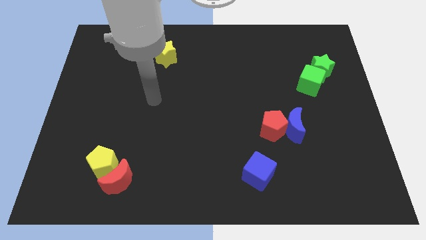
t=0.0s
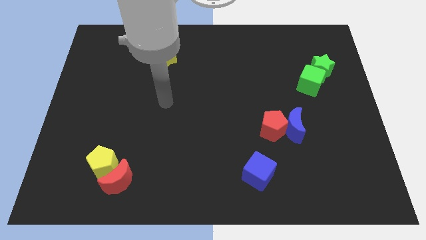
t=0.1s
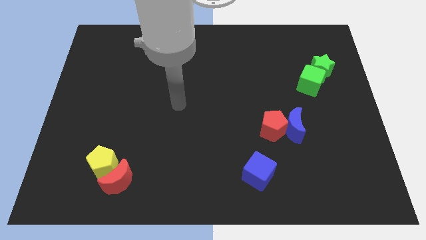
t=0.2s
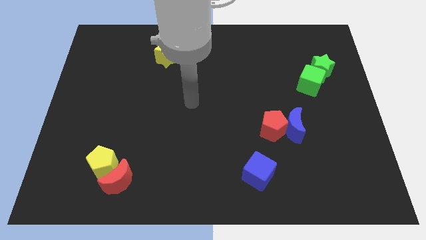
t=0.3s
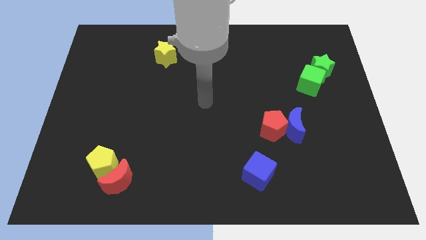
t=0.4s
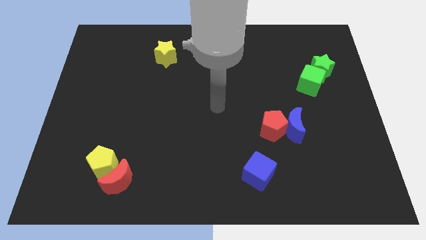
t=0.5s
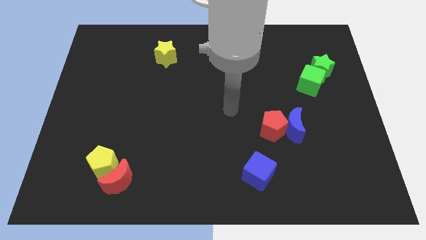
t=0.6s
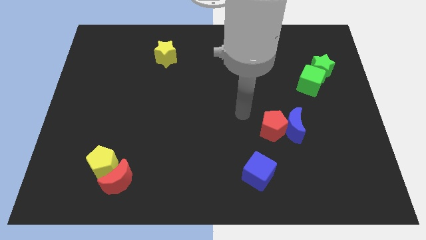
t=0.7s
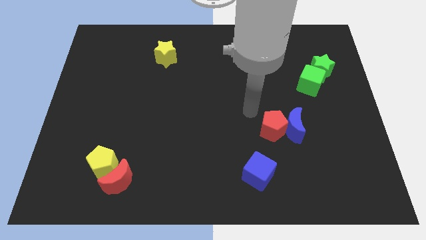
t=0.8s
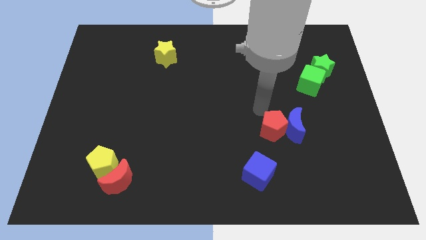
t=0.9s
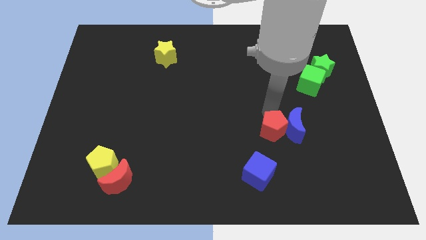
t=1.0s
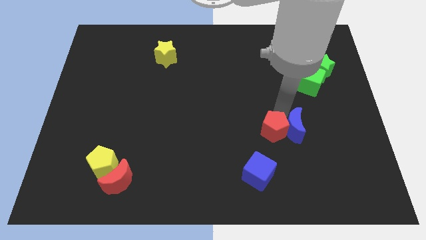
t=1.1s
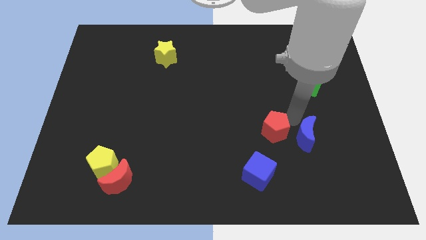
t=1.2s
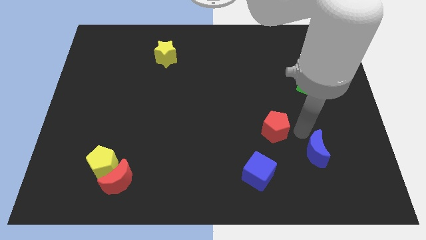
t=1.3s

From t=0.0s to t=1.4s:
move the red pentagon away from the blue moon

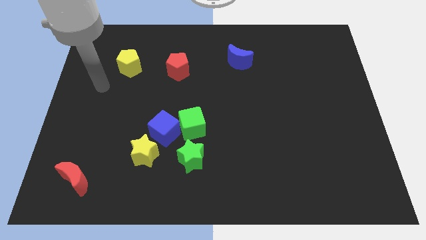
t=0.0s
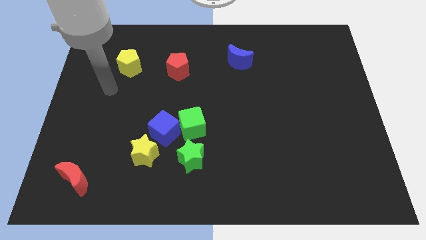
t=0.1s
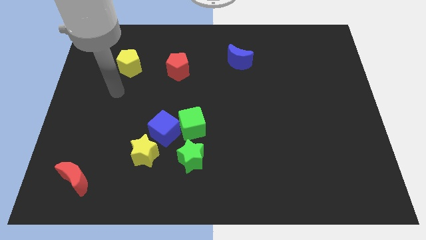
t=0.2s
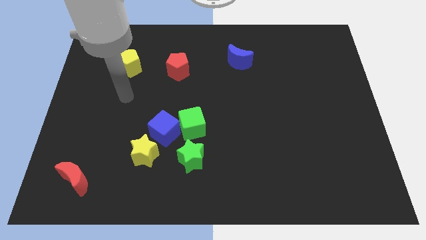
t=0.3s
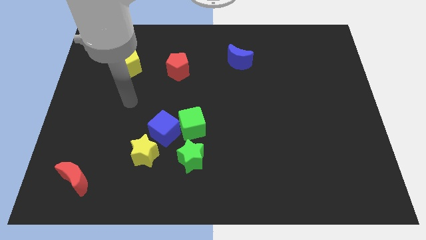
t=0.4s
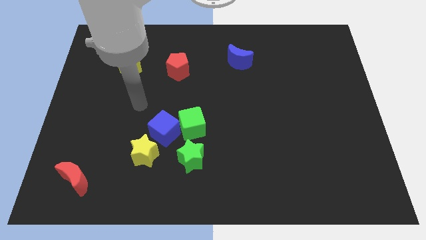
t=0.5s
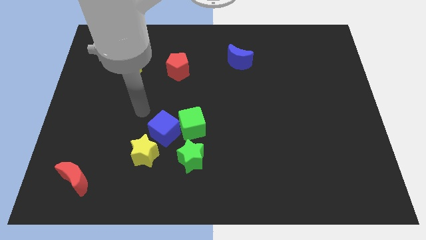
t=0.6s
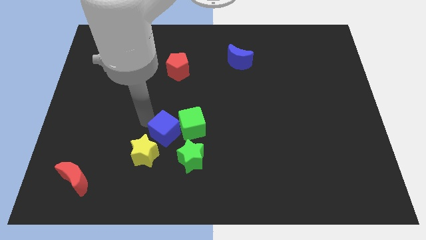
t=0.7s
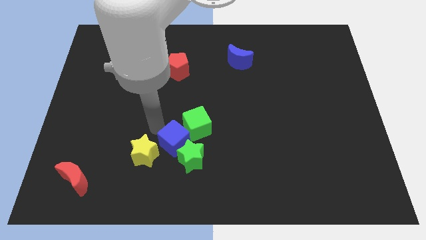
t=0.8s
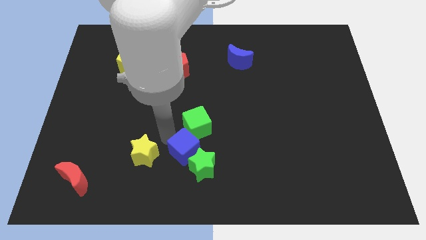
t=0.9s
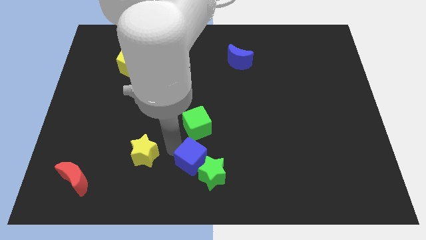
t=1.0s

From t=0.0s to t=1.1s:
separate the yellow star from the blue cube

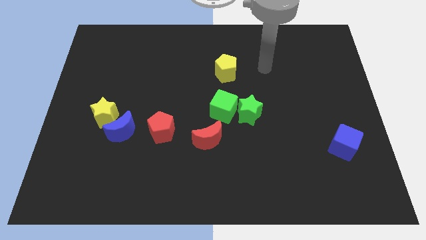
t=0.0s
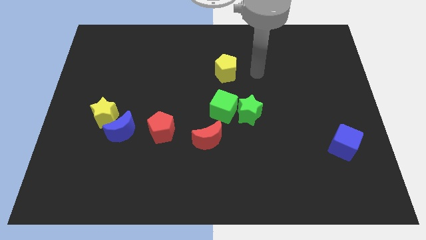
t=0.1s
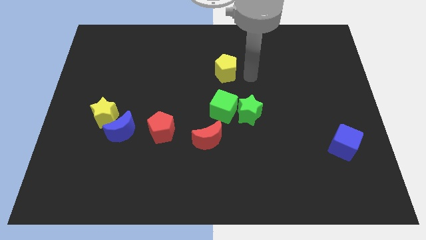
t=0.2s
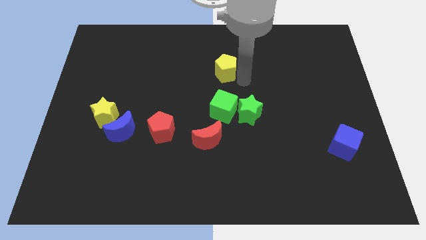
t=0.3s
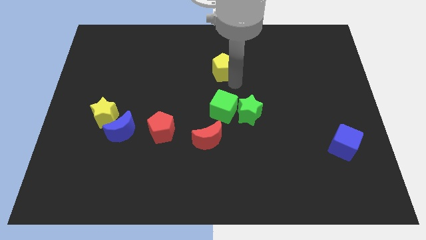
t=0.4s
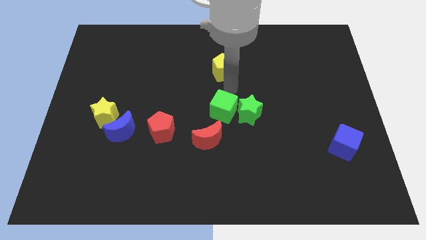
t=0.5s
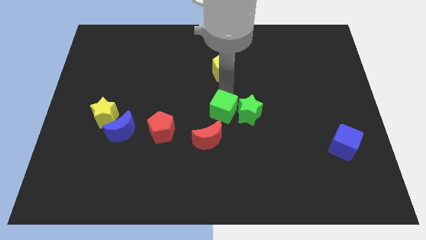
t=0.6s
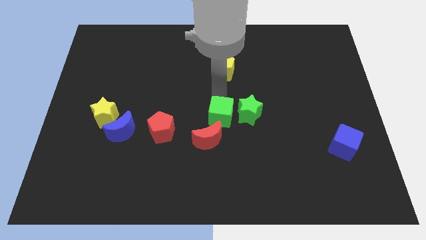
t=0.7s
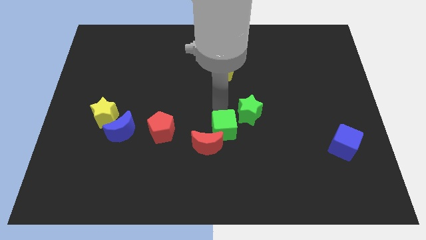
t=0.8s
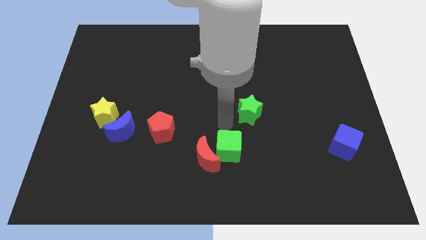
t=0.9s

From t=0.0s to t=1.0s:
separate the green star from the green cube

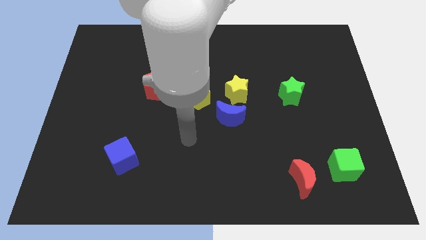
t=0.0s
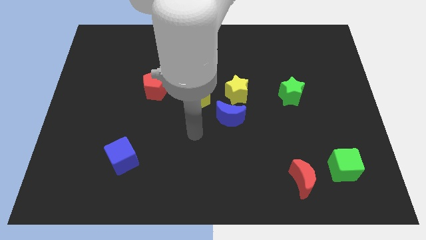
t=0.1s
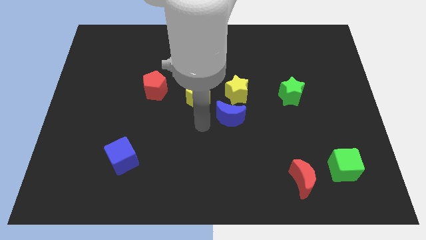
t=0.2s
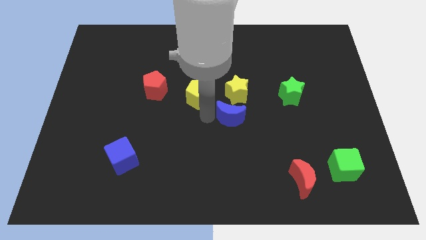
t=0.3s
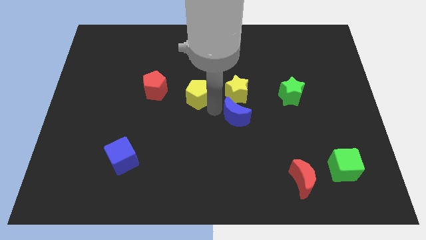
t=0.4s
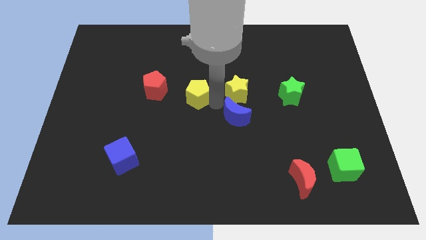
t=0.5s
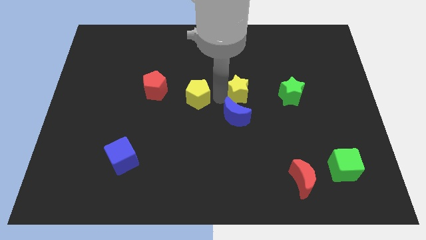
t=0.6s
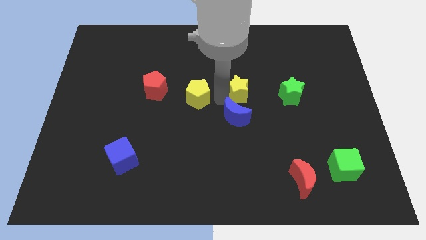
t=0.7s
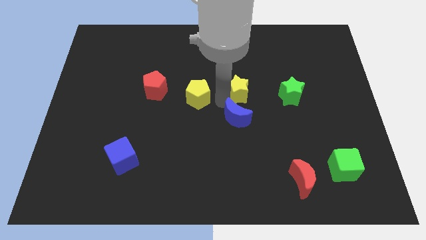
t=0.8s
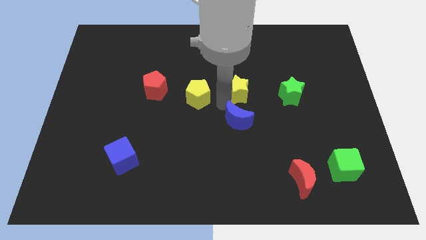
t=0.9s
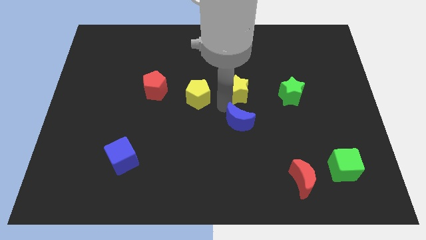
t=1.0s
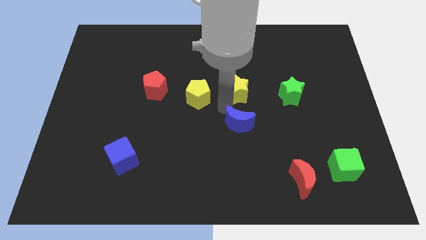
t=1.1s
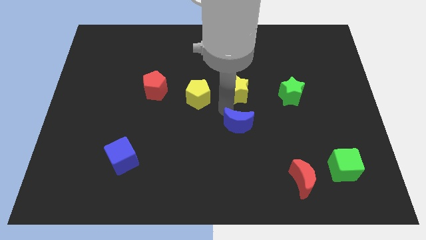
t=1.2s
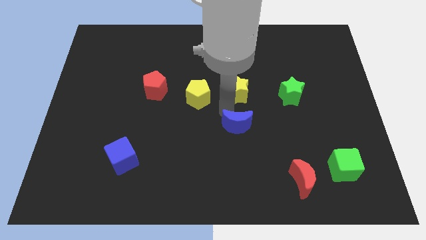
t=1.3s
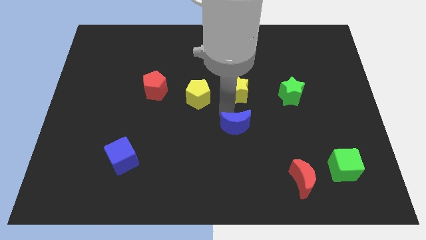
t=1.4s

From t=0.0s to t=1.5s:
move the blue moon away from the yellow star and yellow pentagon

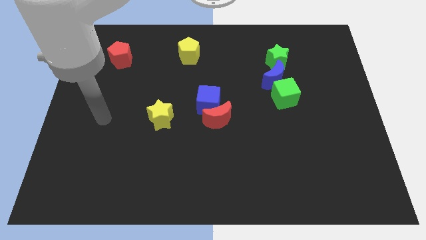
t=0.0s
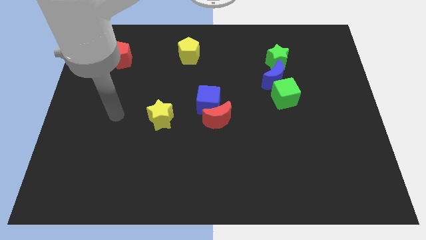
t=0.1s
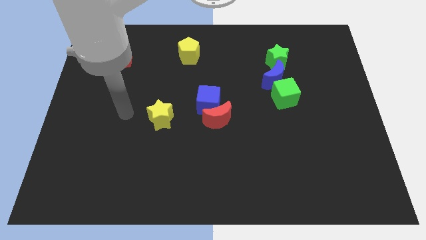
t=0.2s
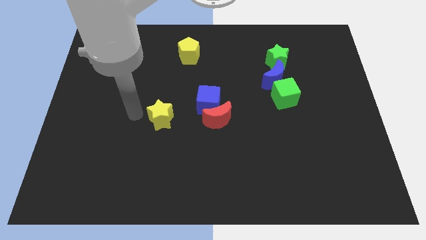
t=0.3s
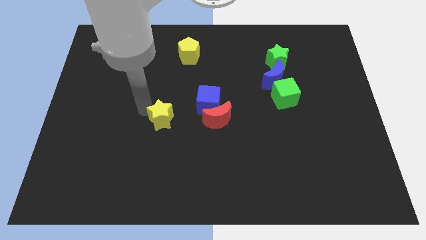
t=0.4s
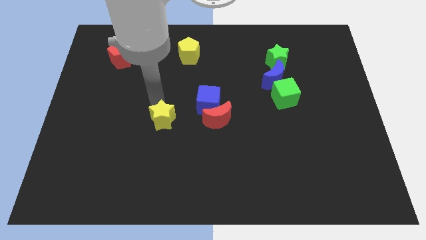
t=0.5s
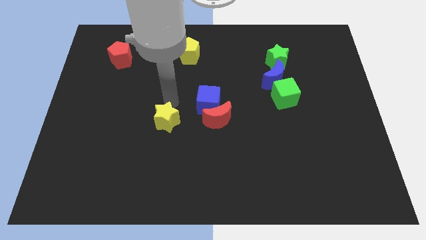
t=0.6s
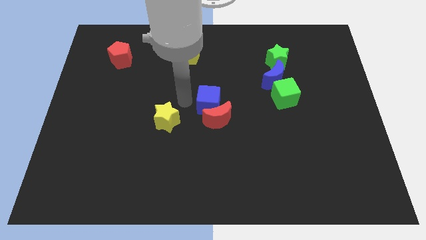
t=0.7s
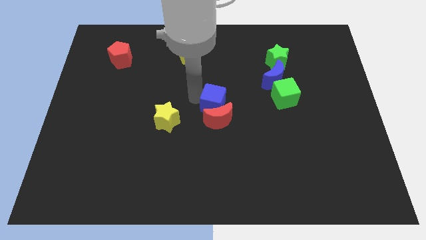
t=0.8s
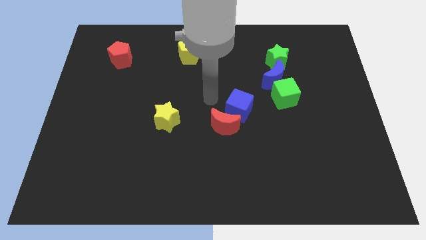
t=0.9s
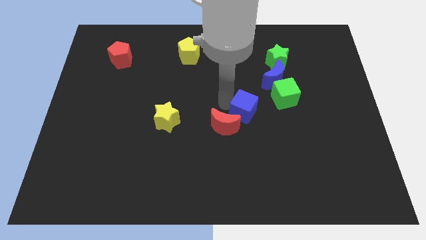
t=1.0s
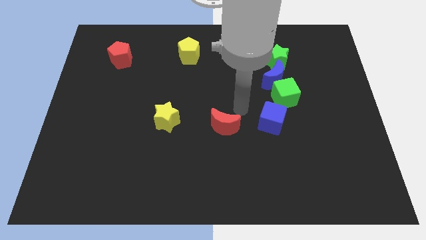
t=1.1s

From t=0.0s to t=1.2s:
move the red moon away from the blue cube

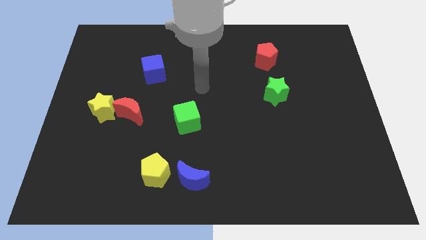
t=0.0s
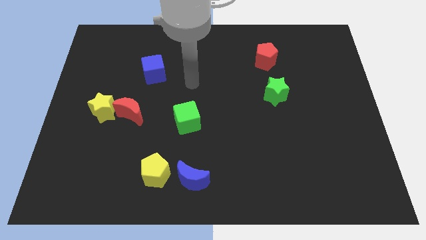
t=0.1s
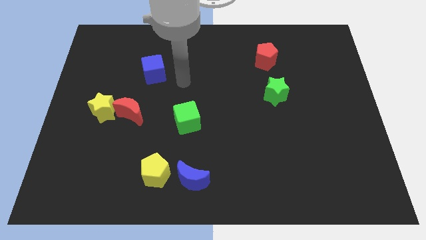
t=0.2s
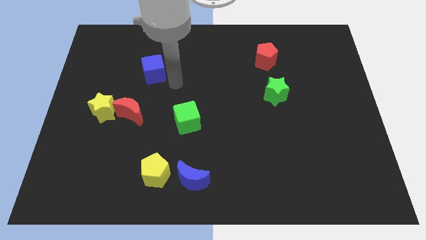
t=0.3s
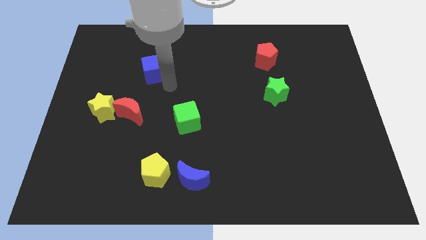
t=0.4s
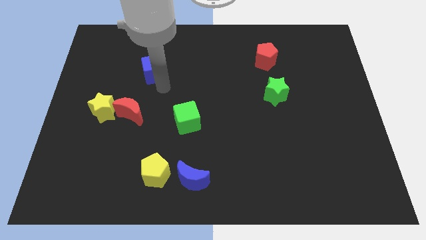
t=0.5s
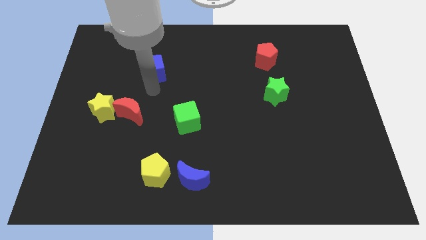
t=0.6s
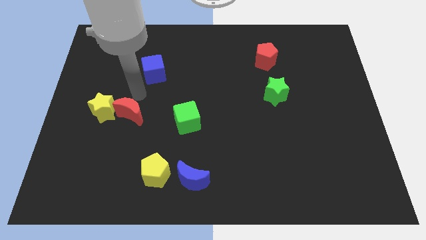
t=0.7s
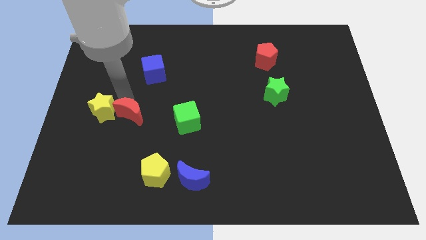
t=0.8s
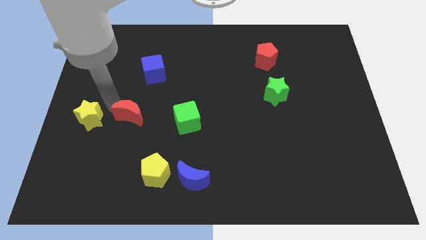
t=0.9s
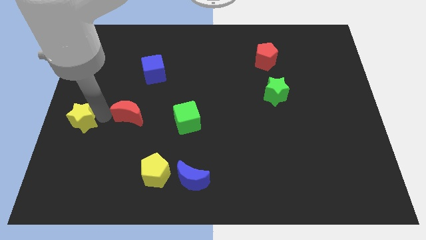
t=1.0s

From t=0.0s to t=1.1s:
move the red moon away from the yellow star

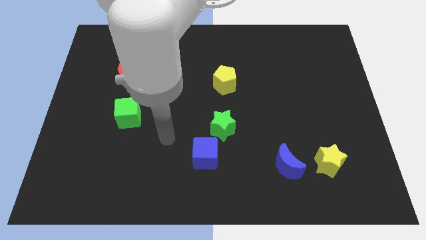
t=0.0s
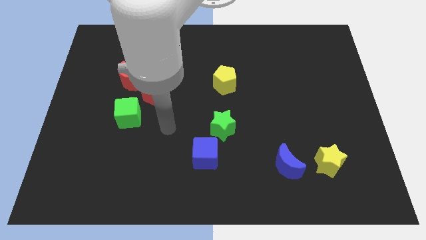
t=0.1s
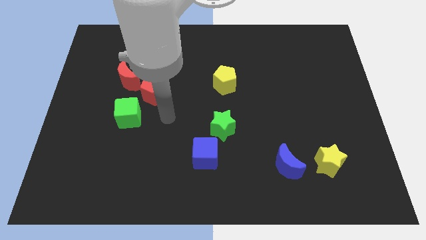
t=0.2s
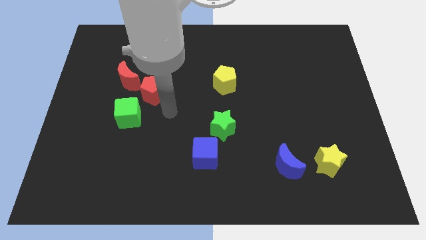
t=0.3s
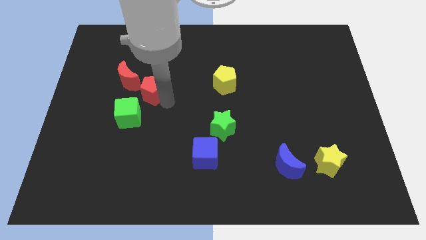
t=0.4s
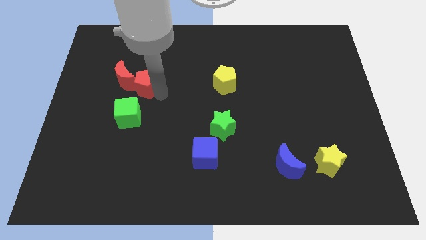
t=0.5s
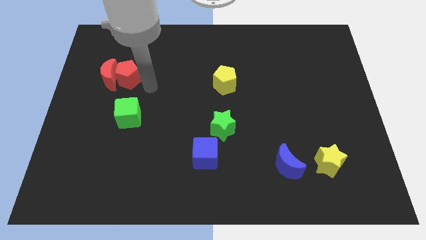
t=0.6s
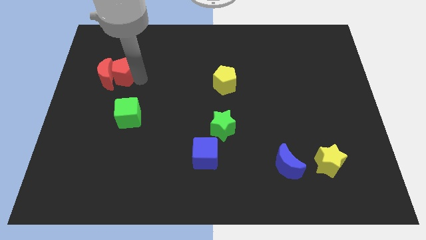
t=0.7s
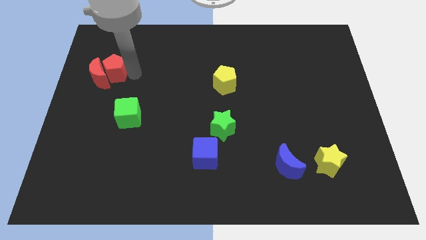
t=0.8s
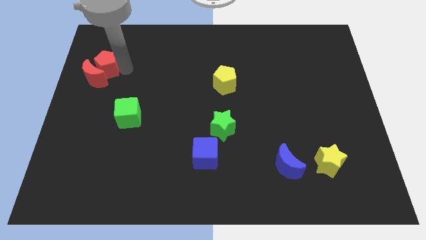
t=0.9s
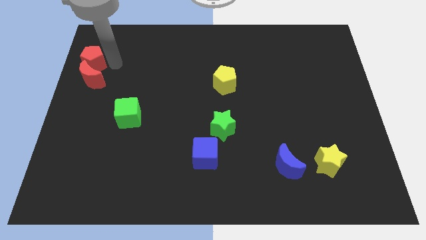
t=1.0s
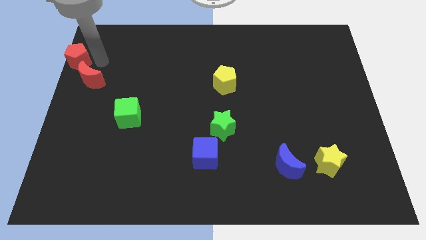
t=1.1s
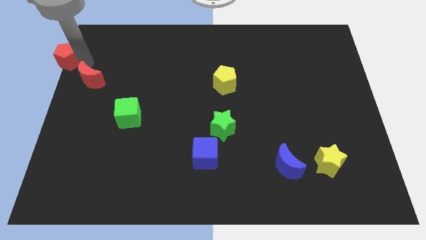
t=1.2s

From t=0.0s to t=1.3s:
move the red moon away from the red pentagon

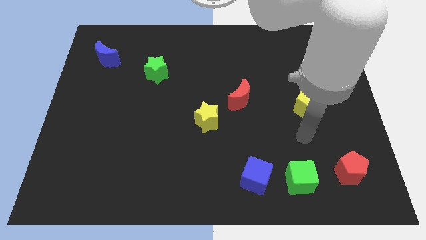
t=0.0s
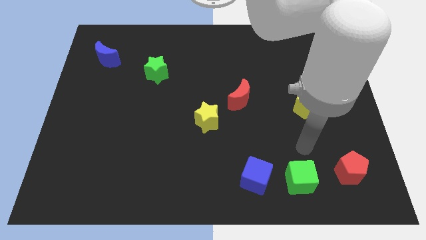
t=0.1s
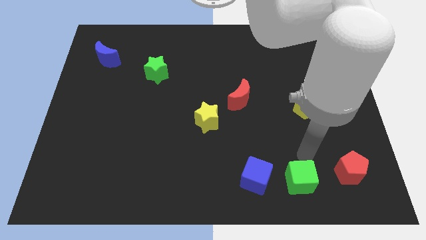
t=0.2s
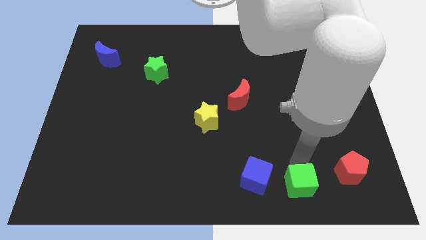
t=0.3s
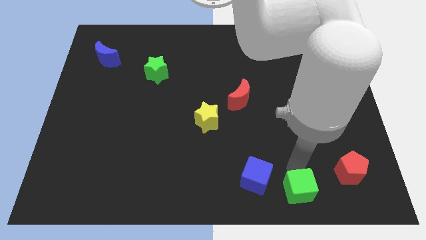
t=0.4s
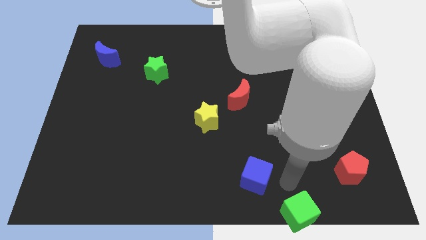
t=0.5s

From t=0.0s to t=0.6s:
separate the blue cube from the green cube
